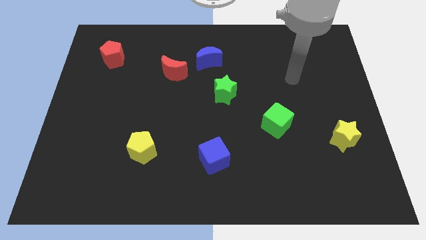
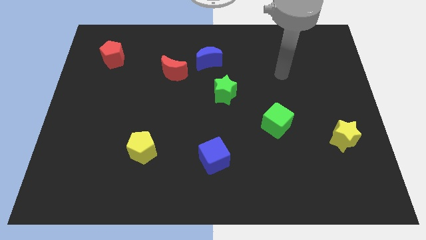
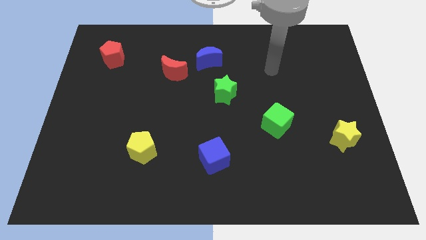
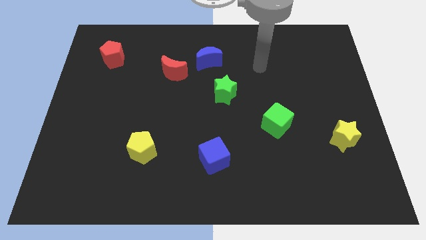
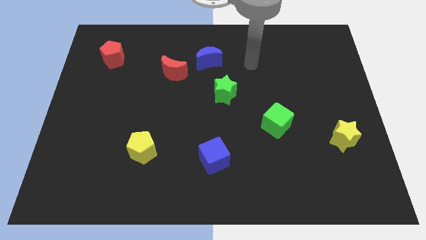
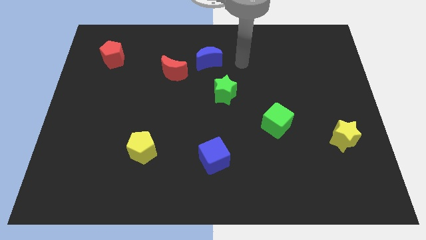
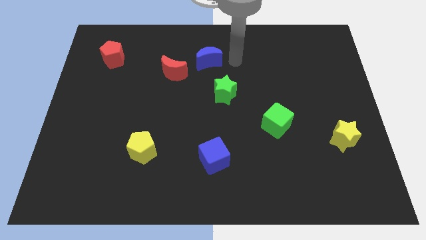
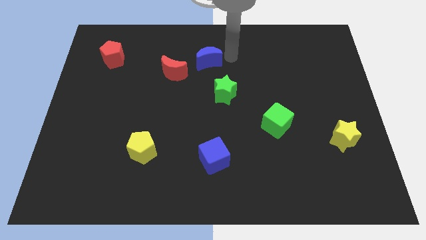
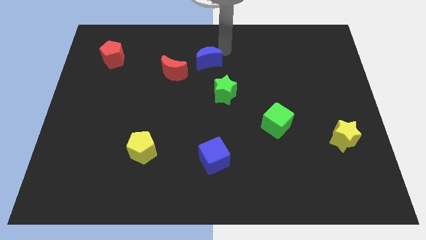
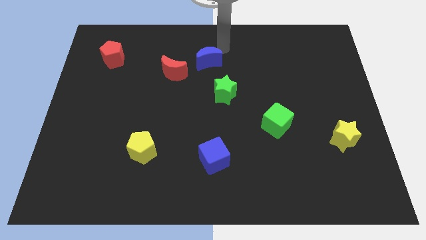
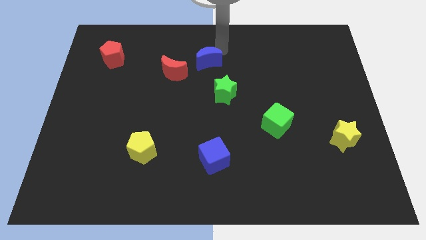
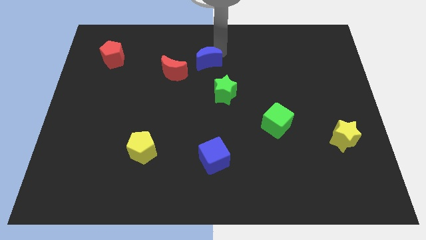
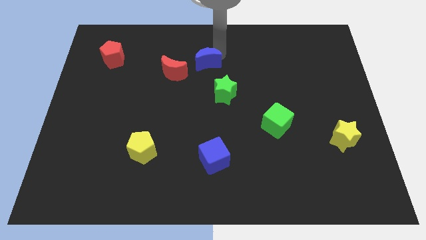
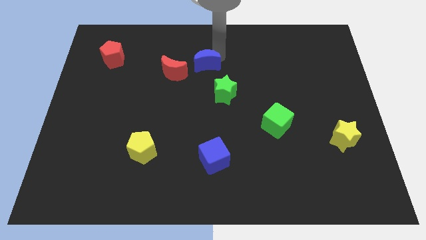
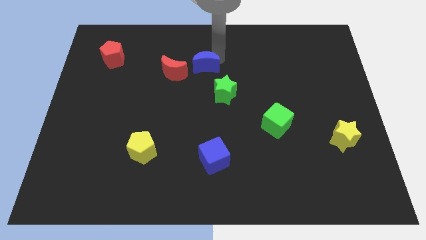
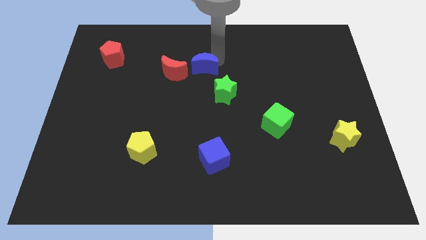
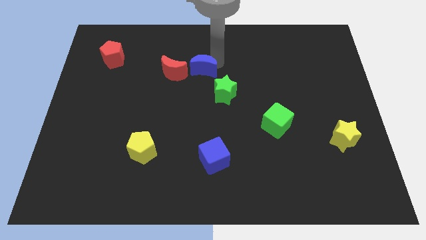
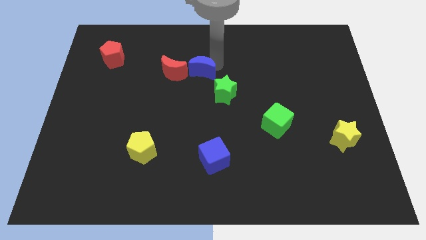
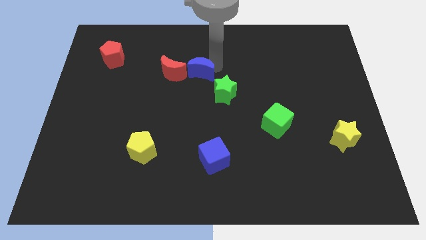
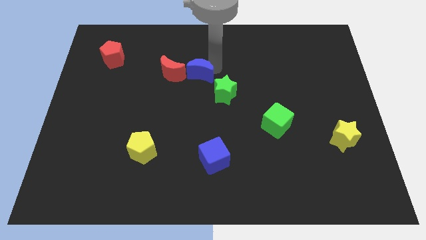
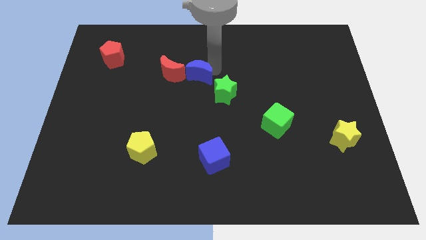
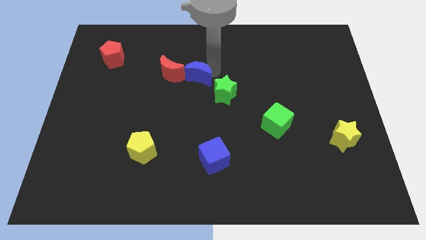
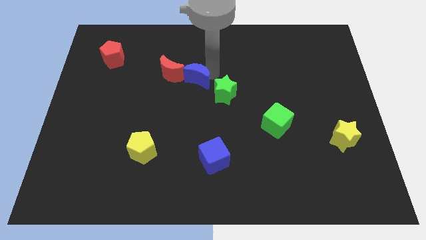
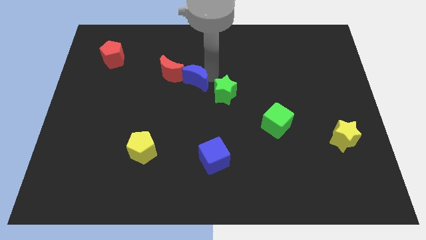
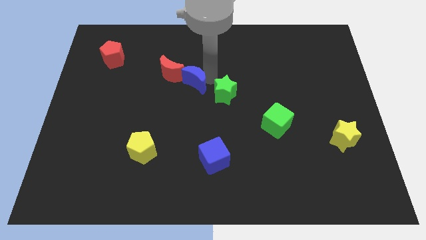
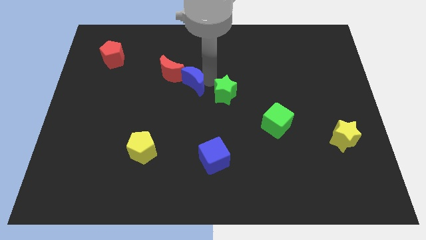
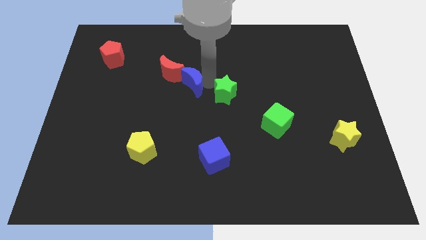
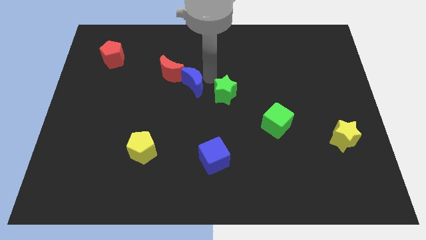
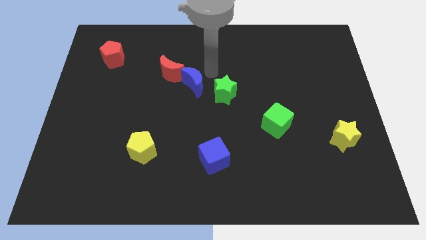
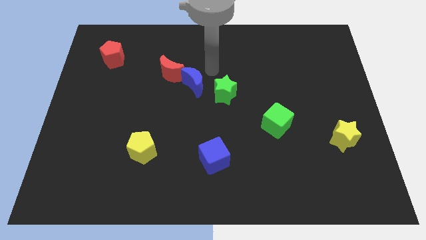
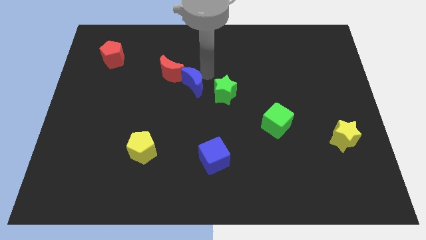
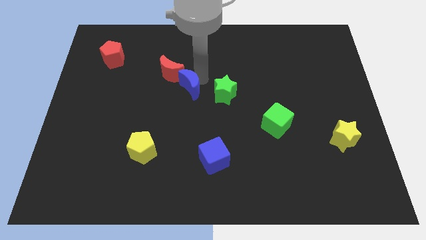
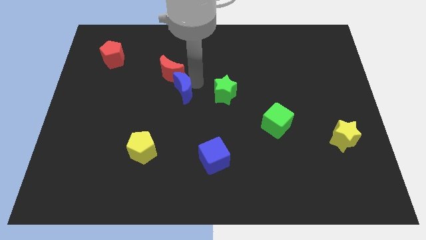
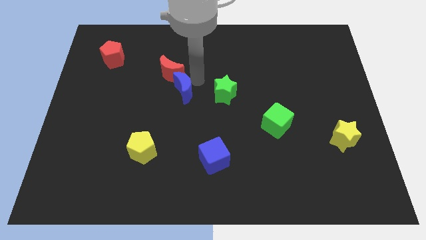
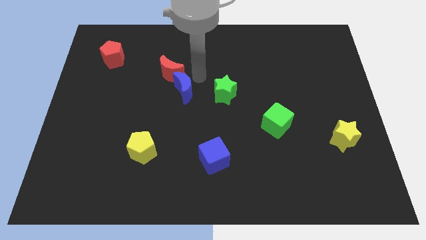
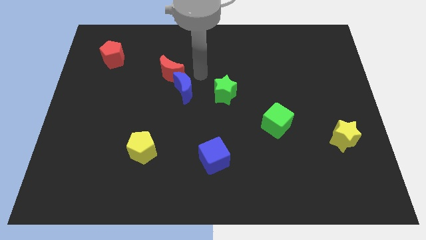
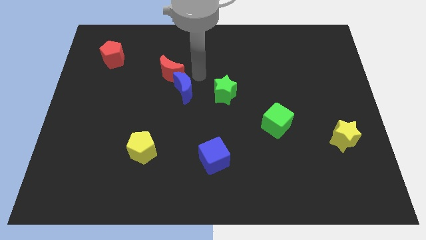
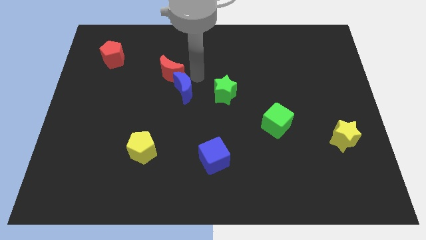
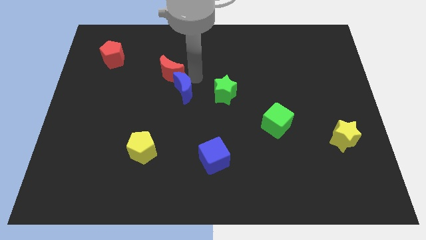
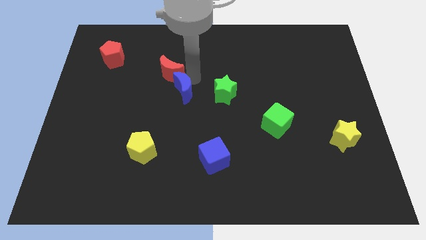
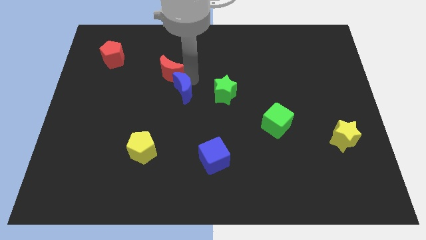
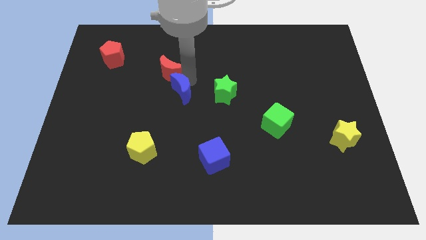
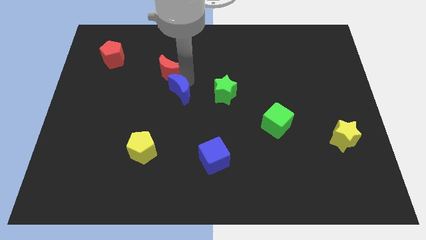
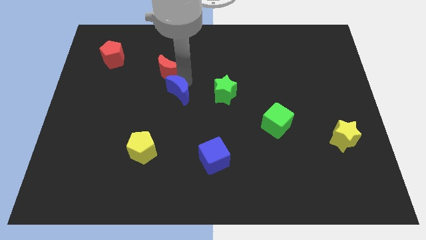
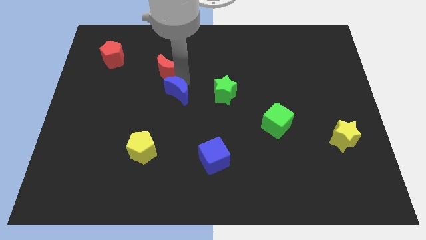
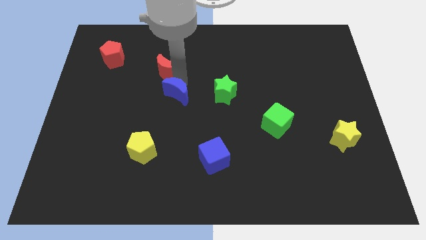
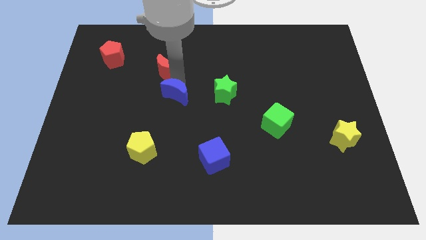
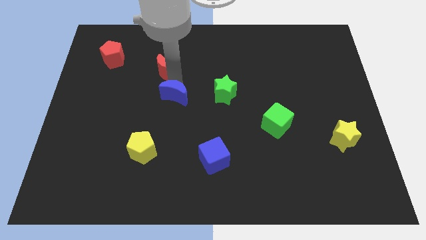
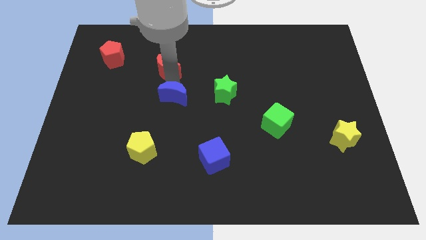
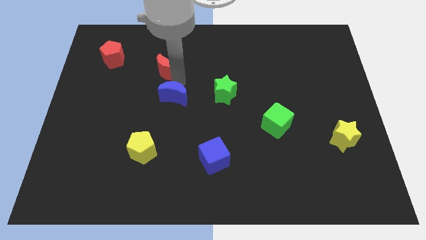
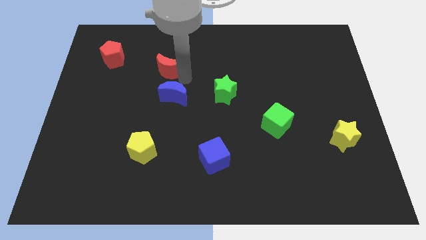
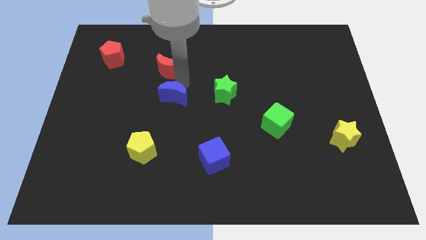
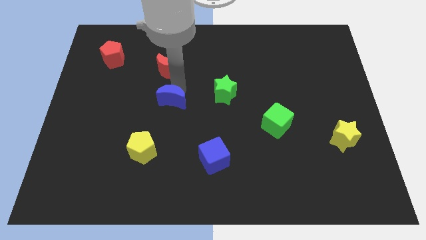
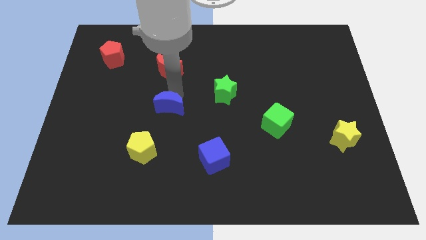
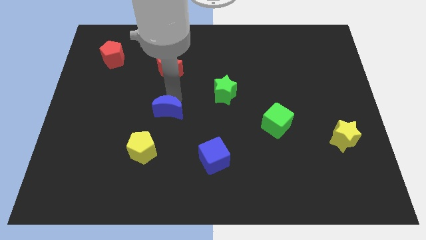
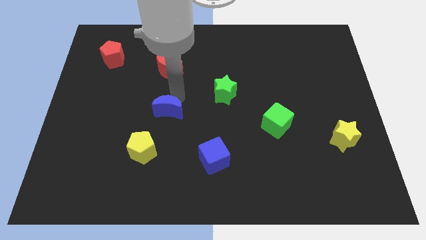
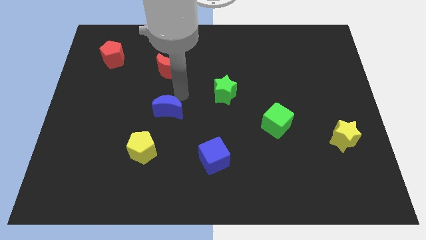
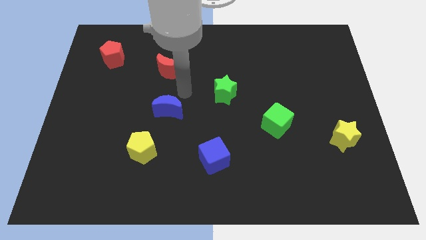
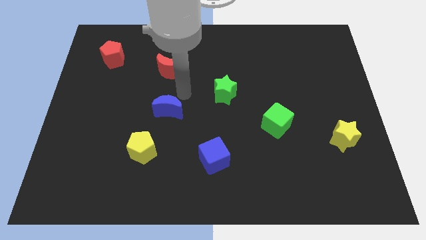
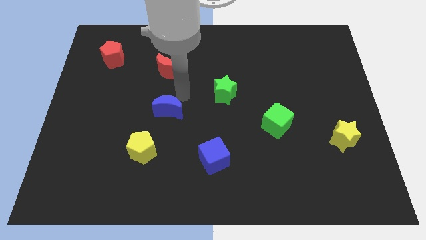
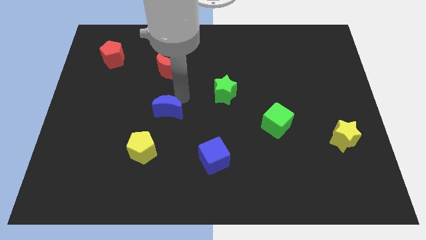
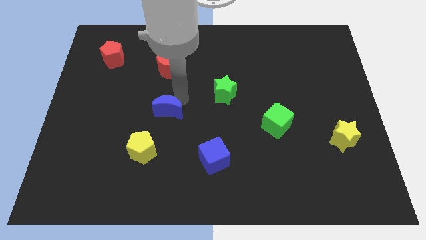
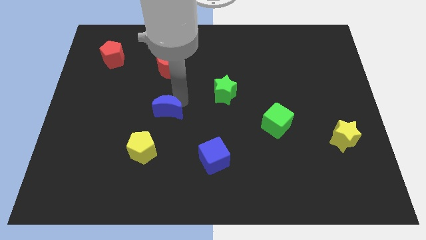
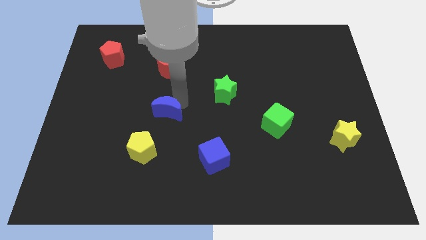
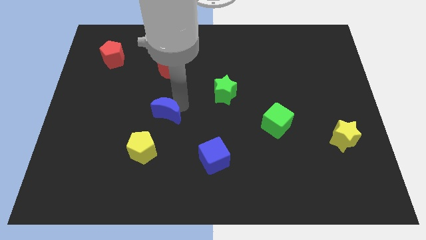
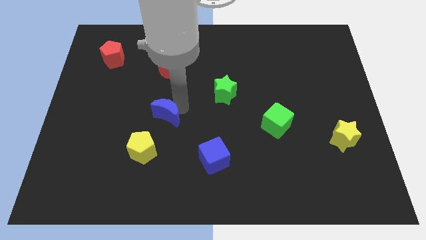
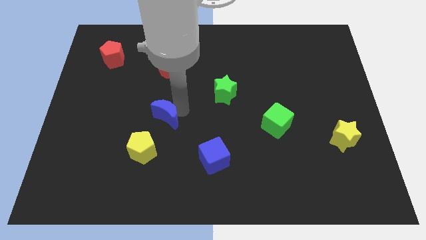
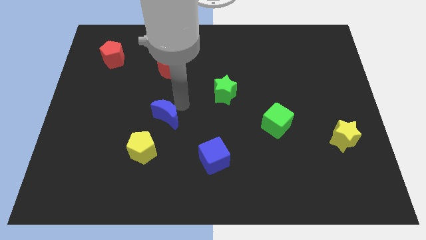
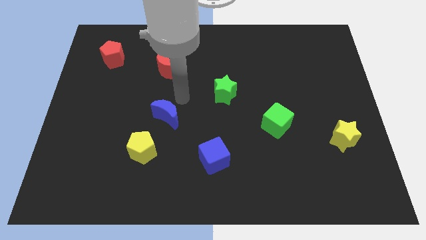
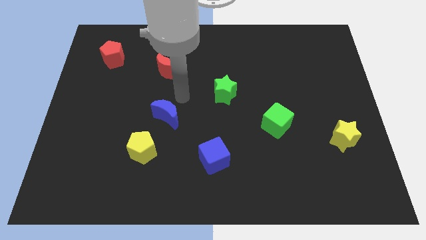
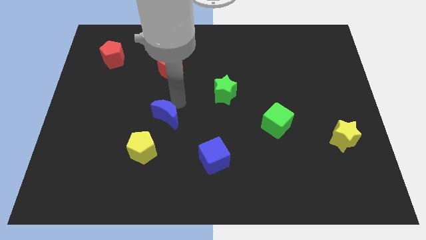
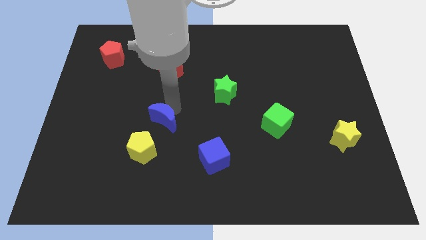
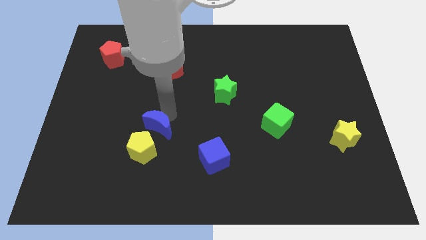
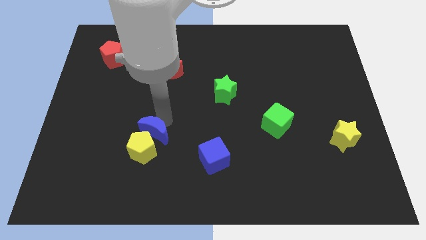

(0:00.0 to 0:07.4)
slide the blue moon towards the yellow pentagon

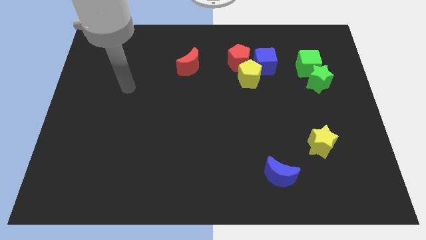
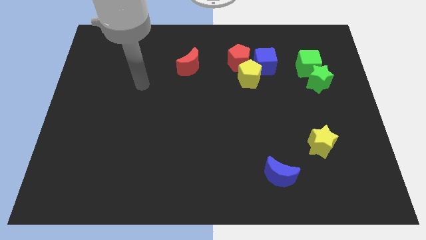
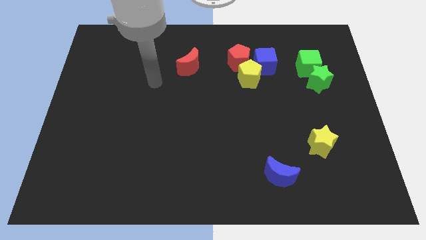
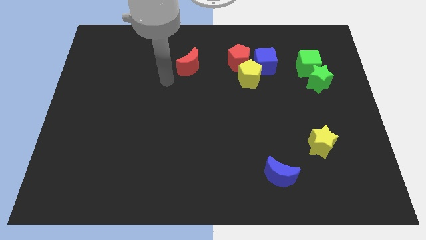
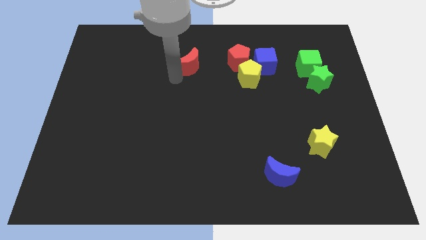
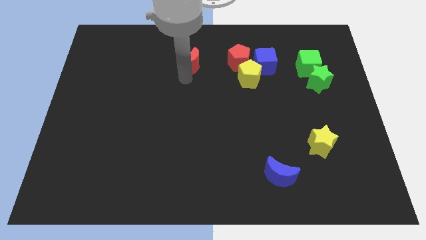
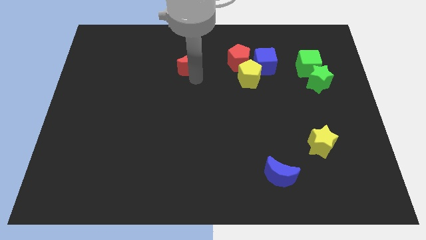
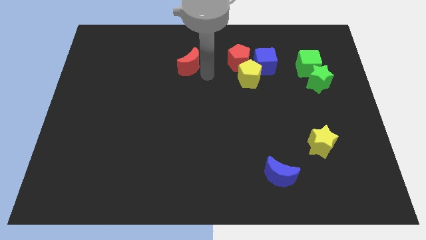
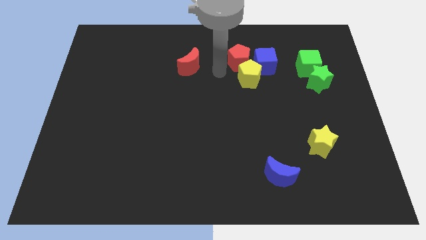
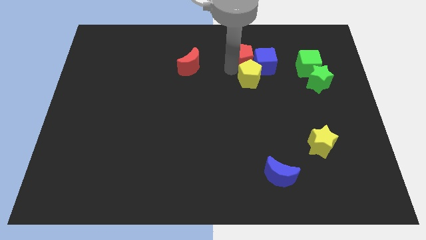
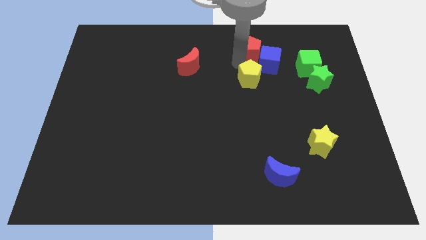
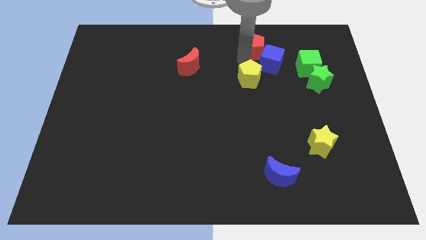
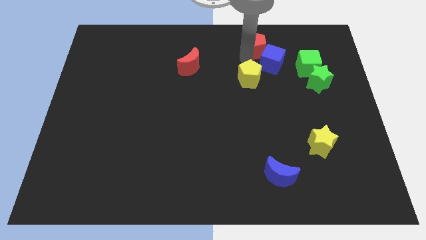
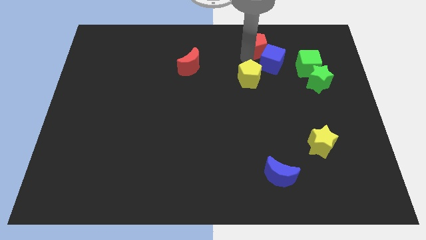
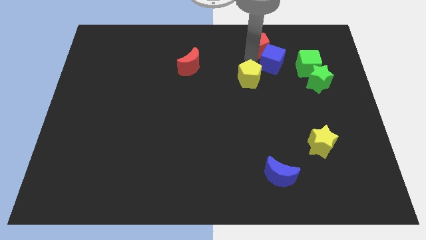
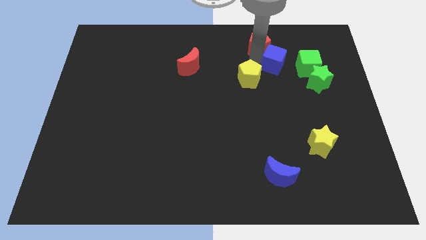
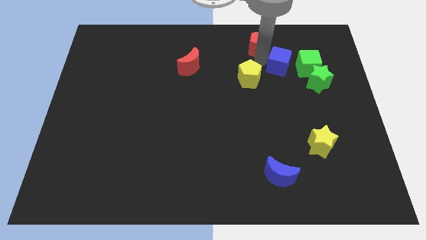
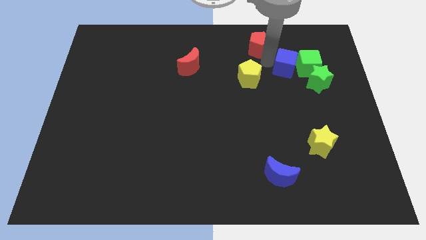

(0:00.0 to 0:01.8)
move the blue cube close to the green cube
